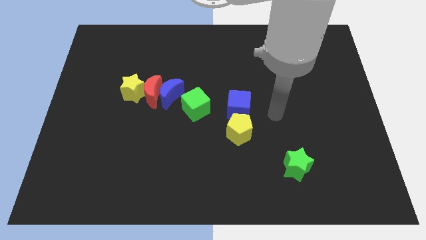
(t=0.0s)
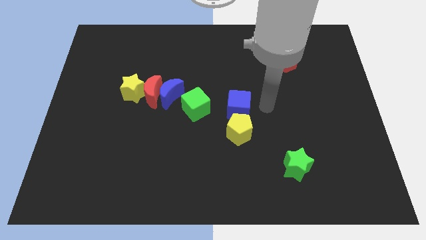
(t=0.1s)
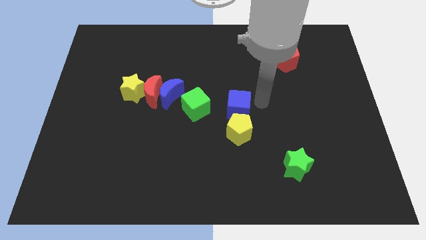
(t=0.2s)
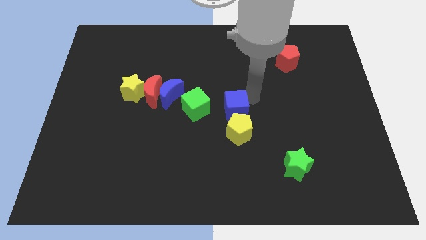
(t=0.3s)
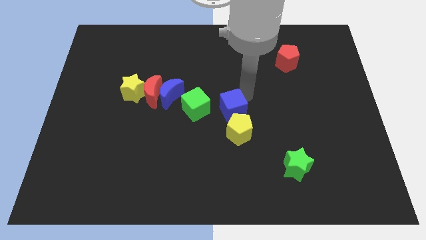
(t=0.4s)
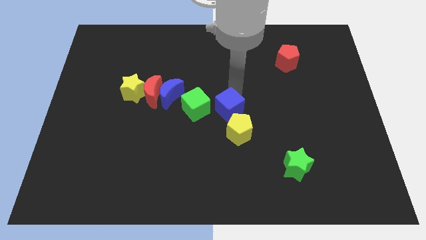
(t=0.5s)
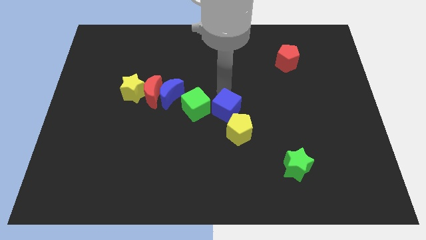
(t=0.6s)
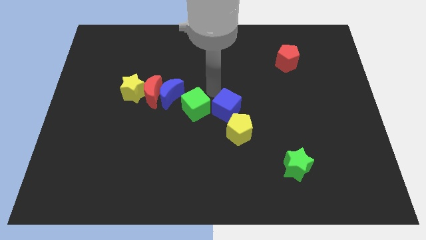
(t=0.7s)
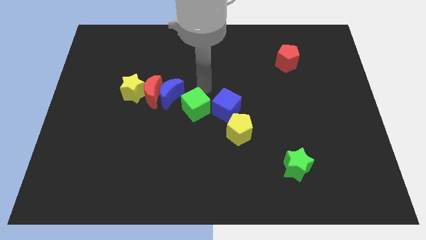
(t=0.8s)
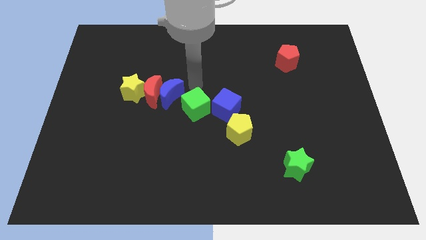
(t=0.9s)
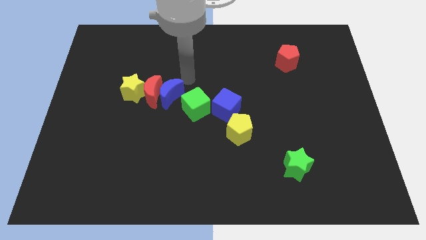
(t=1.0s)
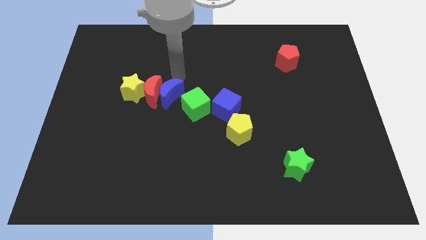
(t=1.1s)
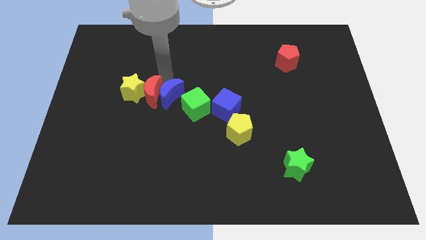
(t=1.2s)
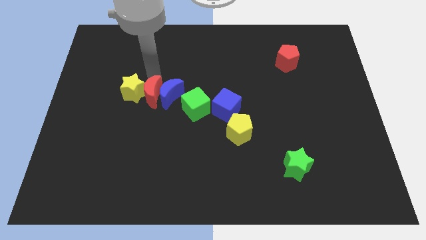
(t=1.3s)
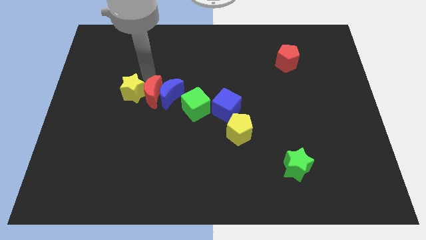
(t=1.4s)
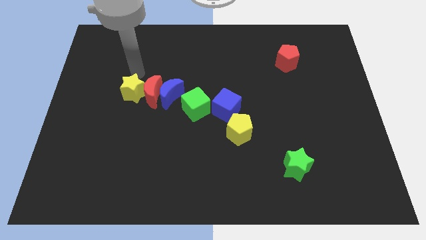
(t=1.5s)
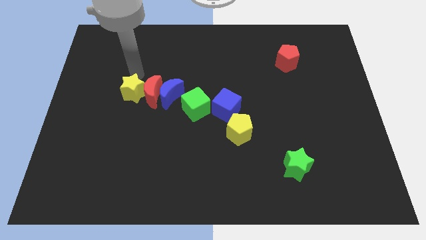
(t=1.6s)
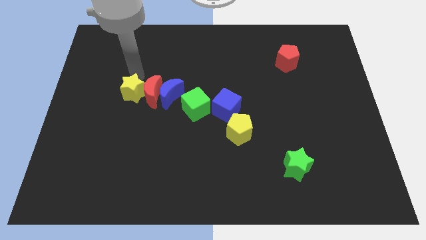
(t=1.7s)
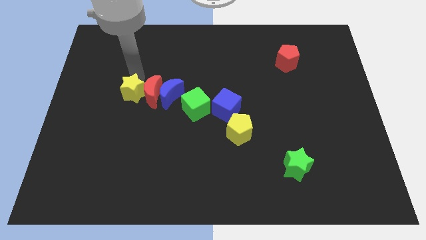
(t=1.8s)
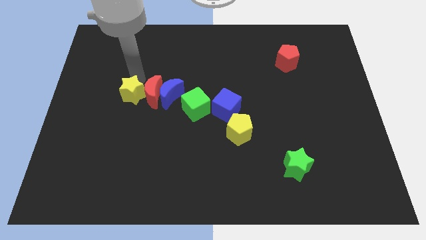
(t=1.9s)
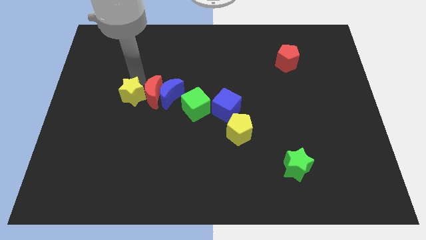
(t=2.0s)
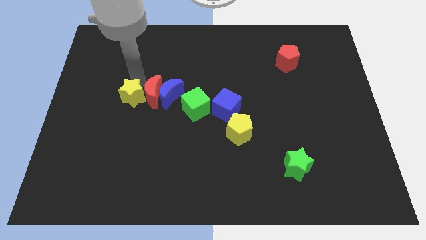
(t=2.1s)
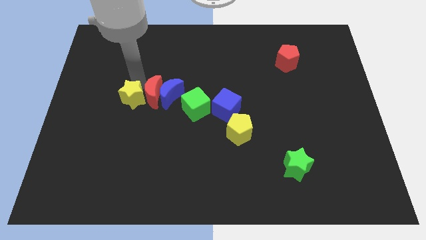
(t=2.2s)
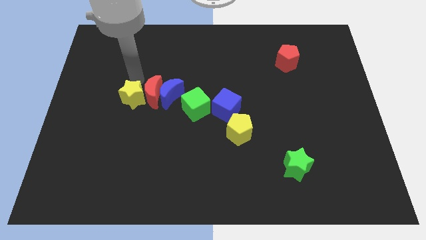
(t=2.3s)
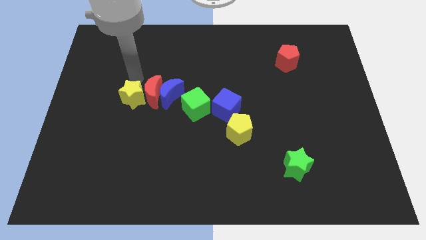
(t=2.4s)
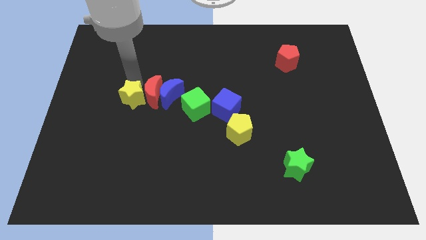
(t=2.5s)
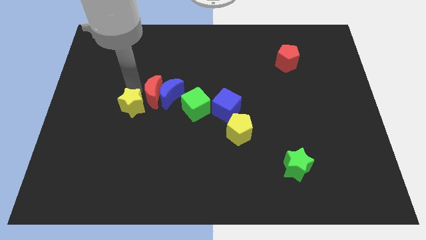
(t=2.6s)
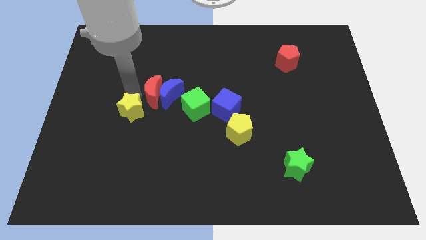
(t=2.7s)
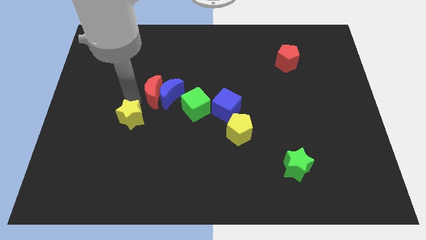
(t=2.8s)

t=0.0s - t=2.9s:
slide the yellow star a bit down

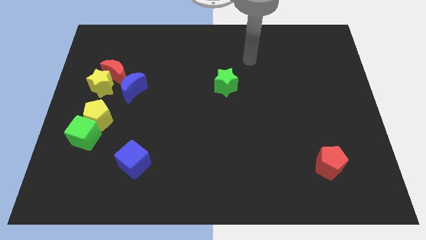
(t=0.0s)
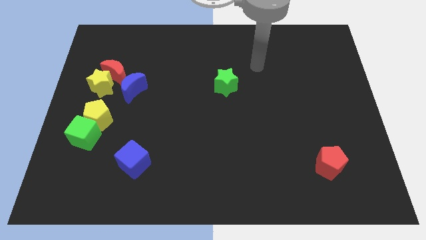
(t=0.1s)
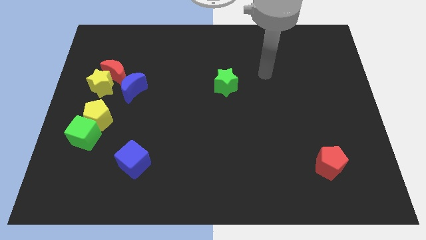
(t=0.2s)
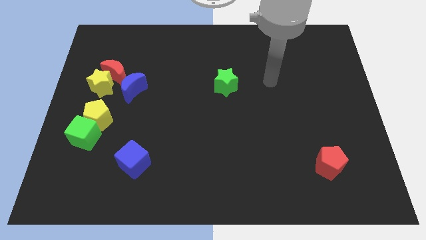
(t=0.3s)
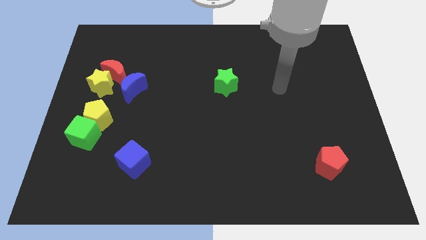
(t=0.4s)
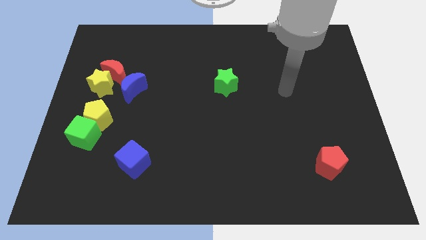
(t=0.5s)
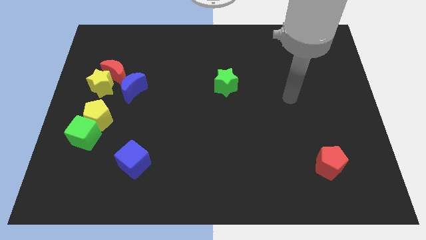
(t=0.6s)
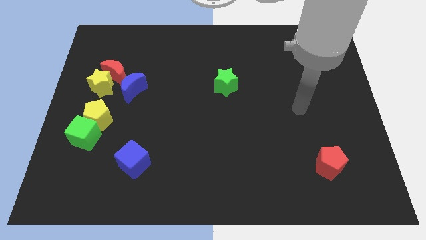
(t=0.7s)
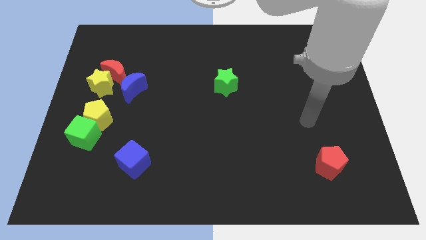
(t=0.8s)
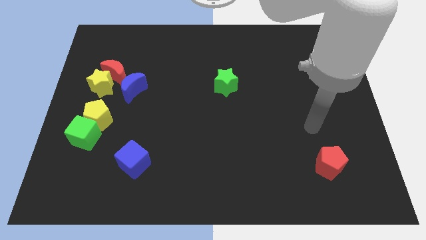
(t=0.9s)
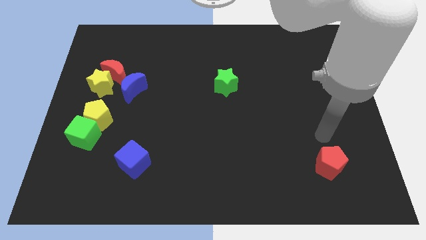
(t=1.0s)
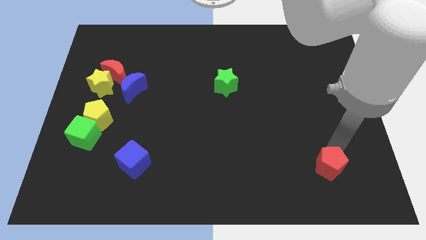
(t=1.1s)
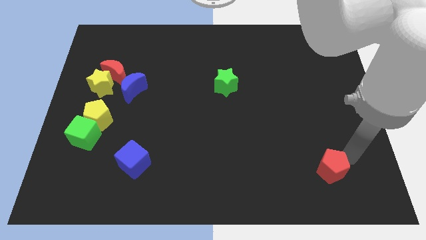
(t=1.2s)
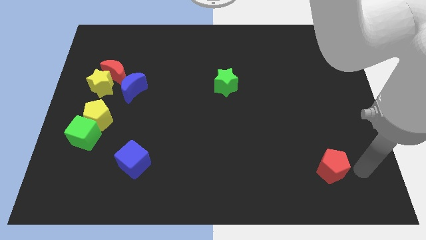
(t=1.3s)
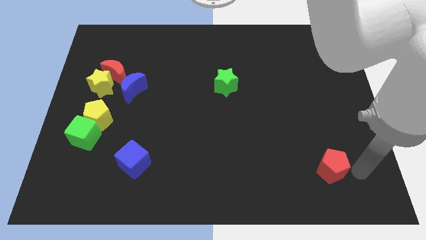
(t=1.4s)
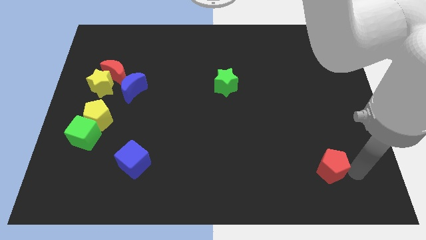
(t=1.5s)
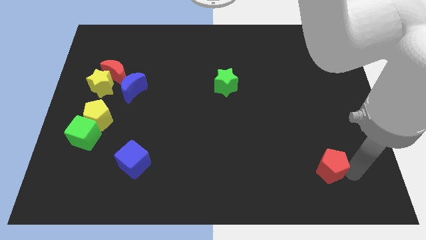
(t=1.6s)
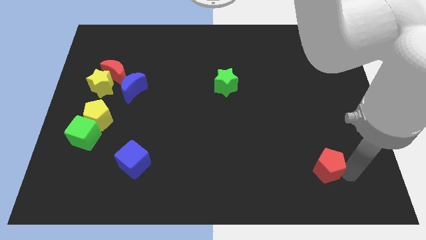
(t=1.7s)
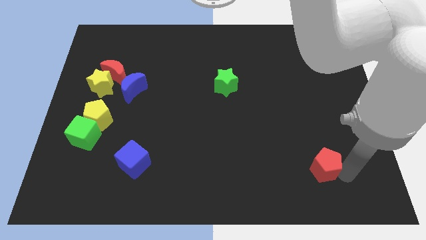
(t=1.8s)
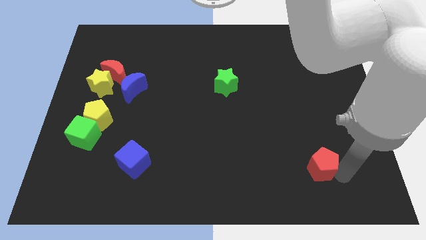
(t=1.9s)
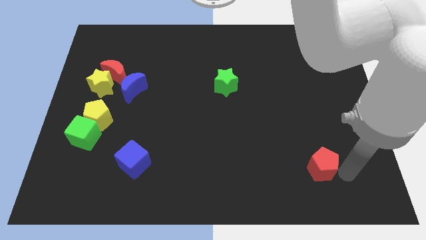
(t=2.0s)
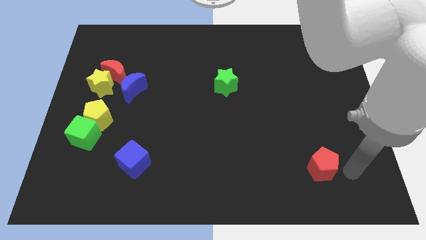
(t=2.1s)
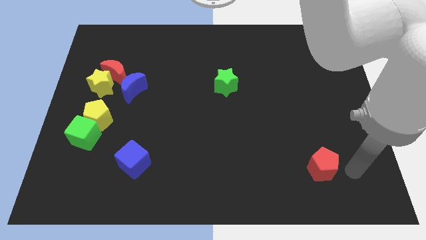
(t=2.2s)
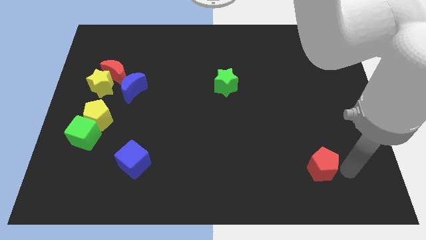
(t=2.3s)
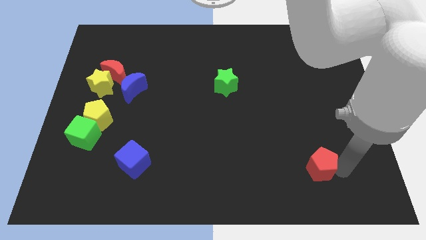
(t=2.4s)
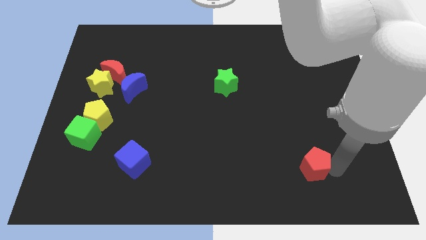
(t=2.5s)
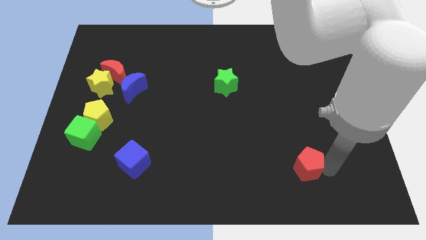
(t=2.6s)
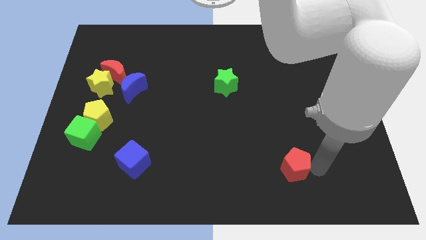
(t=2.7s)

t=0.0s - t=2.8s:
slide the red pentagon a little bit to the left

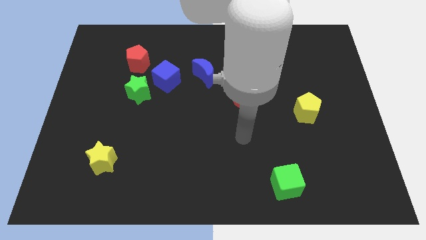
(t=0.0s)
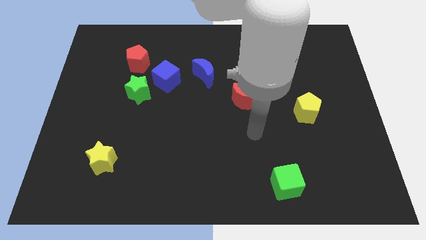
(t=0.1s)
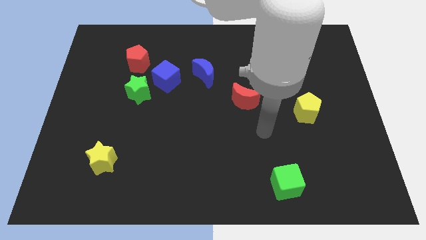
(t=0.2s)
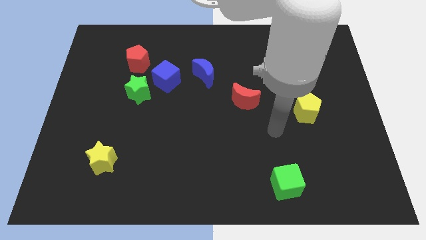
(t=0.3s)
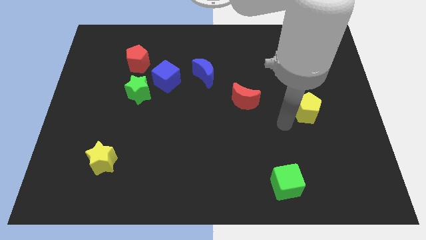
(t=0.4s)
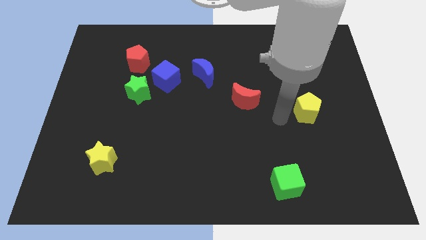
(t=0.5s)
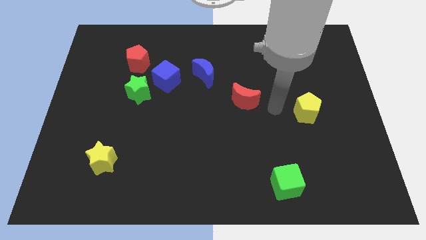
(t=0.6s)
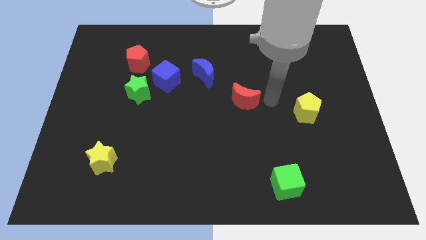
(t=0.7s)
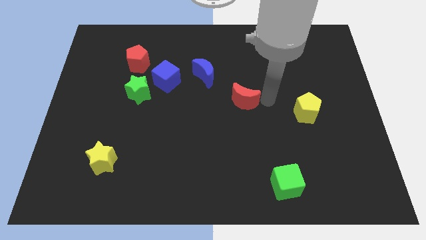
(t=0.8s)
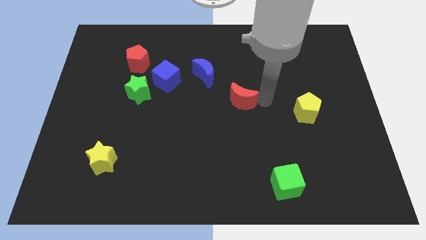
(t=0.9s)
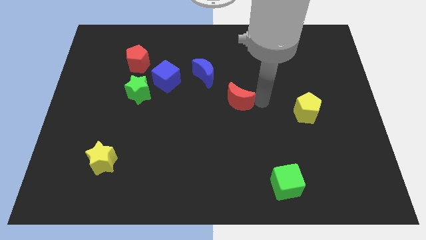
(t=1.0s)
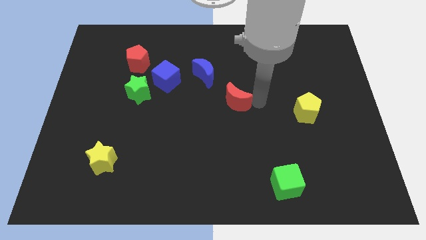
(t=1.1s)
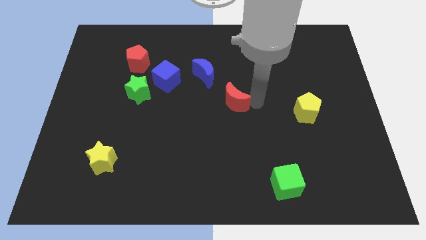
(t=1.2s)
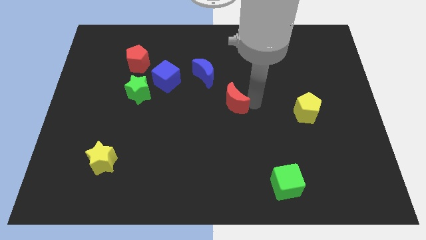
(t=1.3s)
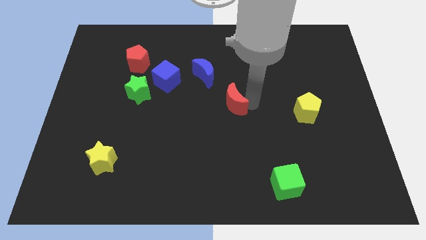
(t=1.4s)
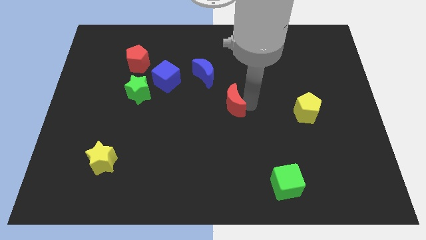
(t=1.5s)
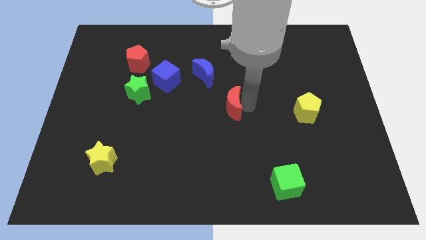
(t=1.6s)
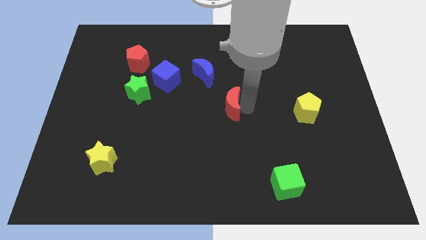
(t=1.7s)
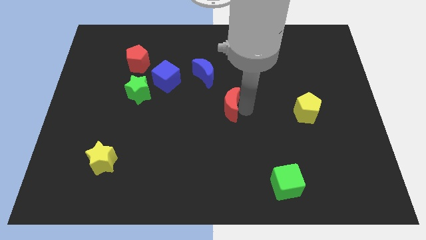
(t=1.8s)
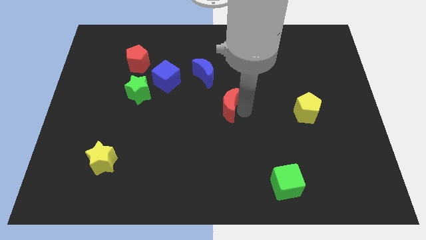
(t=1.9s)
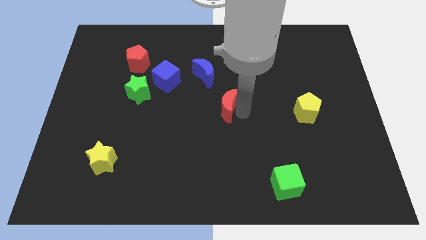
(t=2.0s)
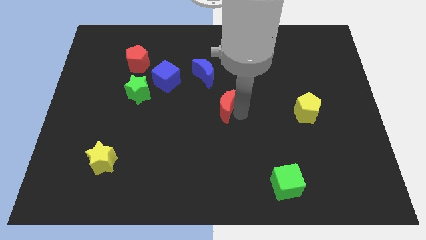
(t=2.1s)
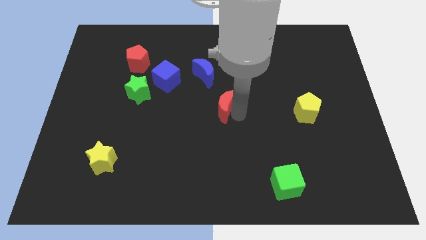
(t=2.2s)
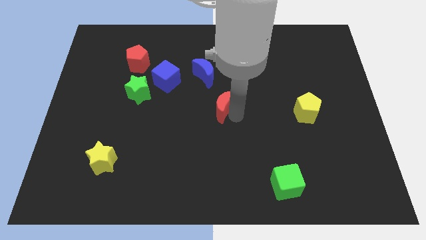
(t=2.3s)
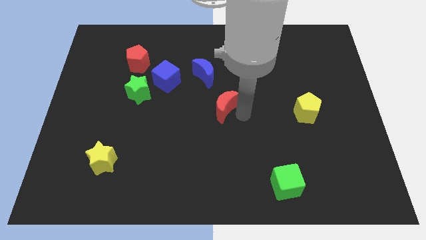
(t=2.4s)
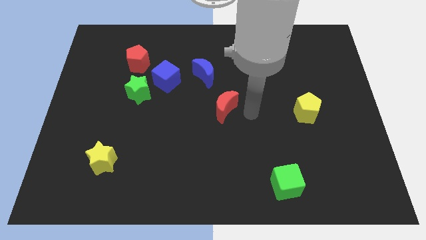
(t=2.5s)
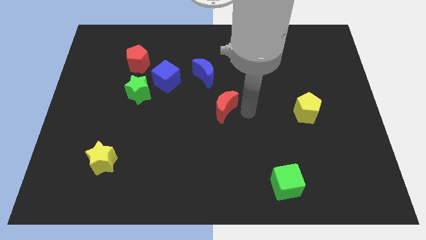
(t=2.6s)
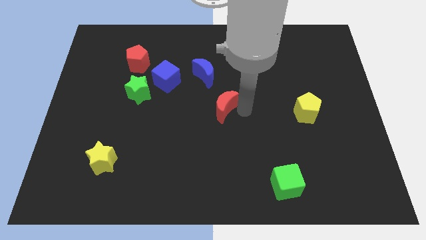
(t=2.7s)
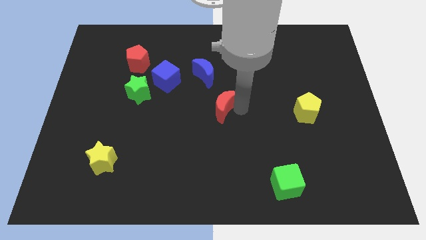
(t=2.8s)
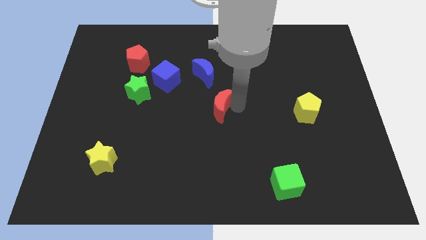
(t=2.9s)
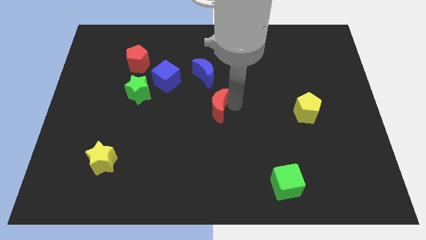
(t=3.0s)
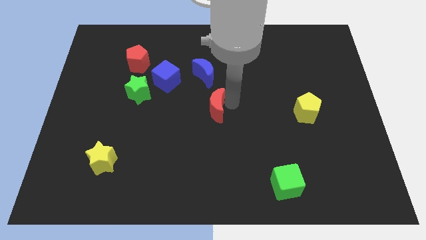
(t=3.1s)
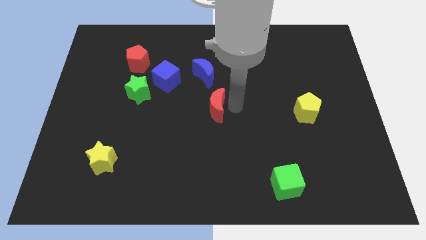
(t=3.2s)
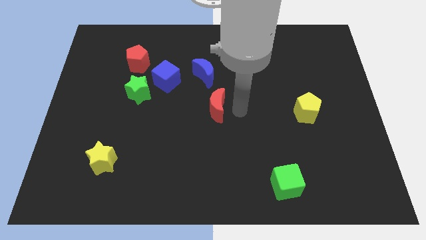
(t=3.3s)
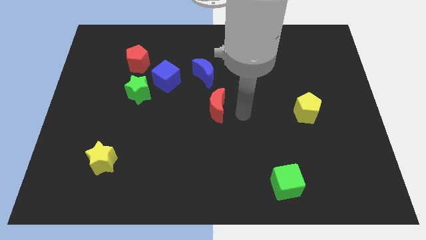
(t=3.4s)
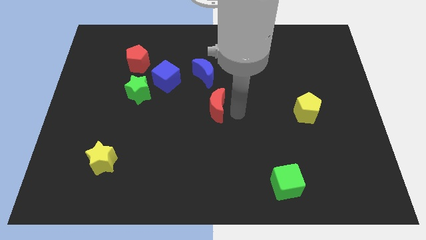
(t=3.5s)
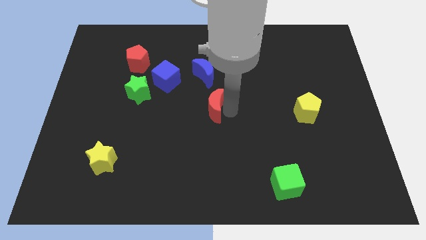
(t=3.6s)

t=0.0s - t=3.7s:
move the red moon a bit to the left
